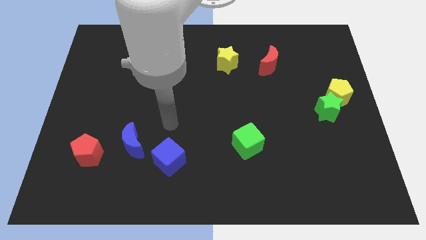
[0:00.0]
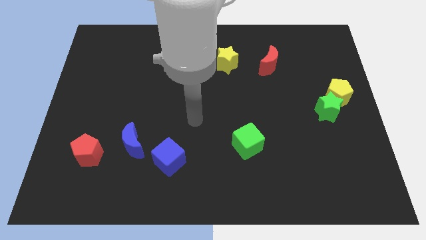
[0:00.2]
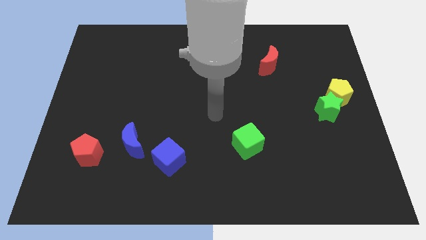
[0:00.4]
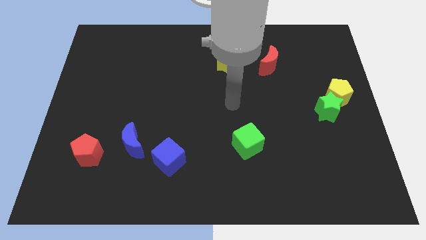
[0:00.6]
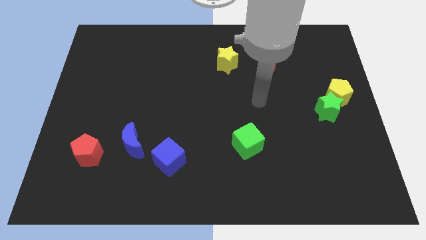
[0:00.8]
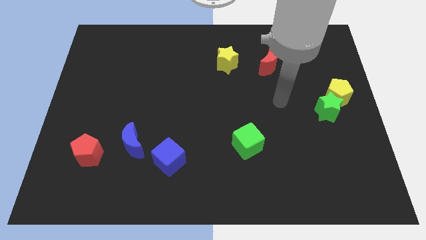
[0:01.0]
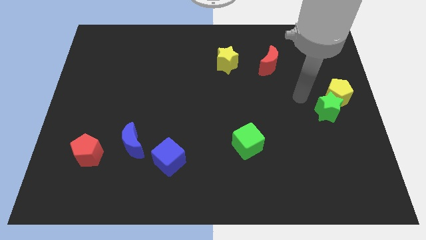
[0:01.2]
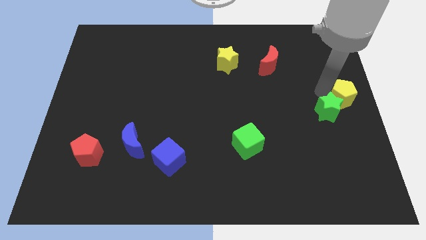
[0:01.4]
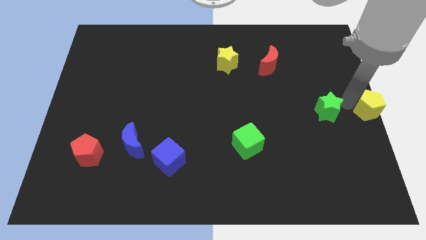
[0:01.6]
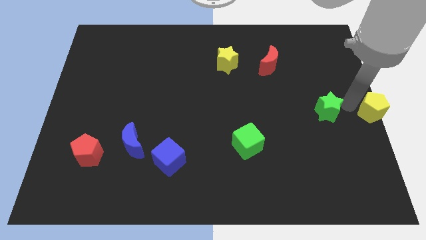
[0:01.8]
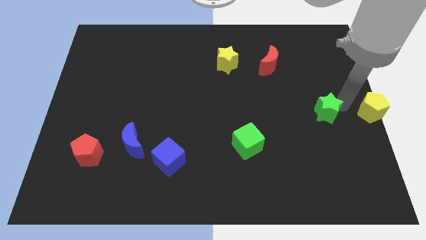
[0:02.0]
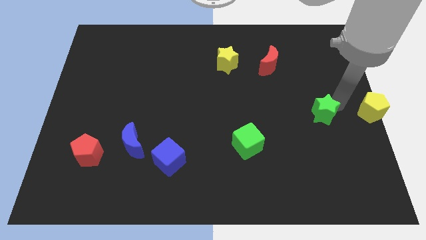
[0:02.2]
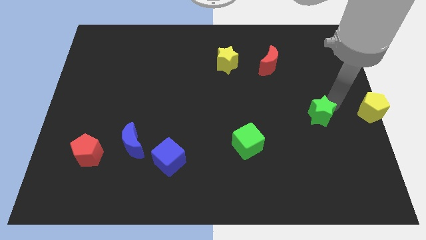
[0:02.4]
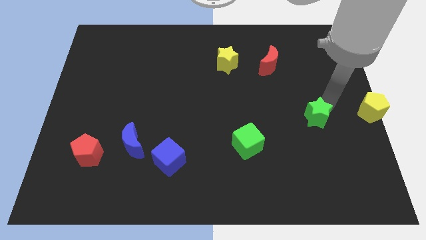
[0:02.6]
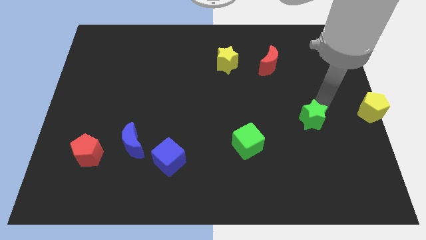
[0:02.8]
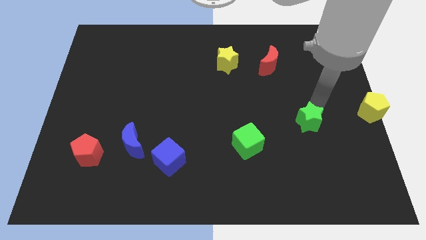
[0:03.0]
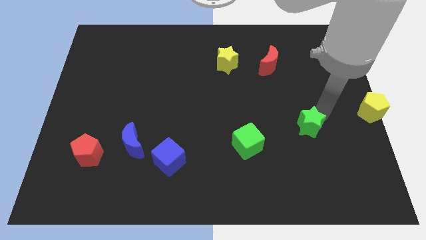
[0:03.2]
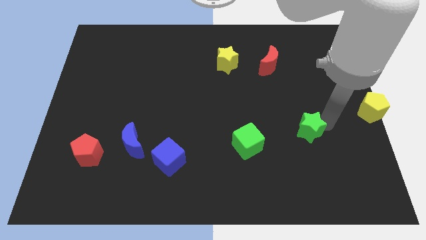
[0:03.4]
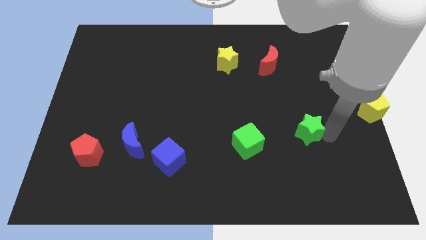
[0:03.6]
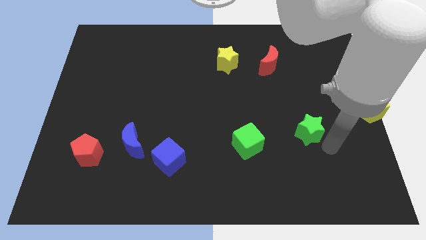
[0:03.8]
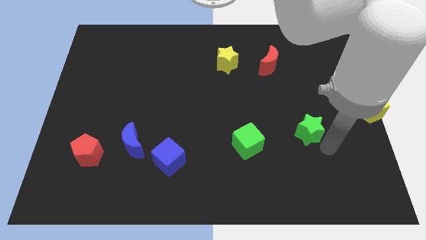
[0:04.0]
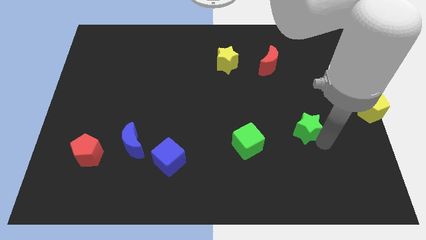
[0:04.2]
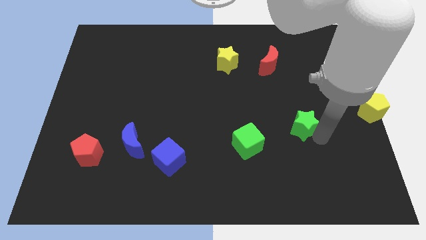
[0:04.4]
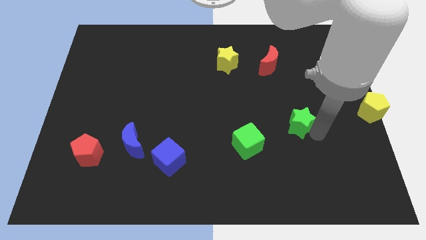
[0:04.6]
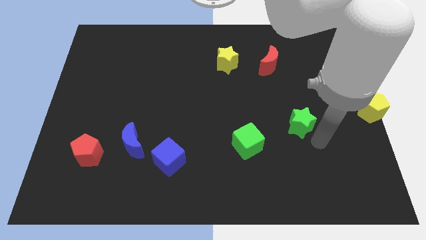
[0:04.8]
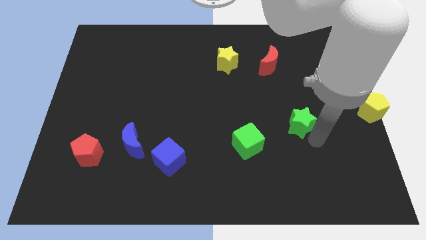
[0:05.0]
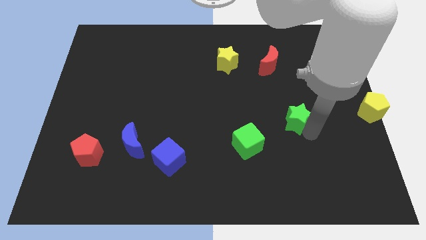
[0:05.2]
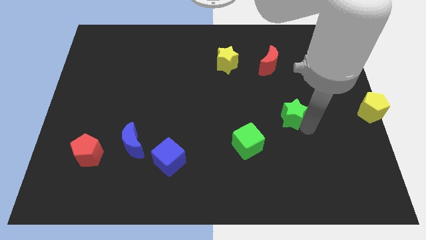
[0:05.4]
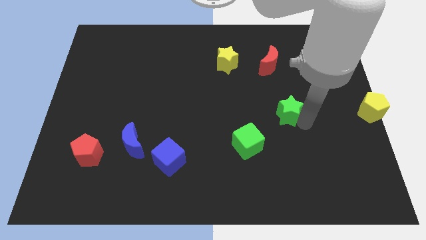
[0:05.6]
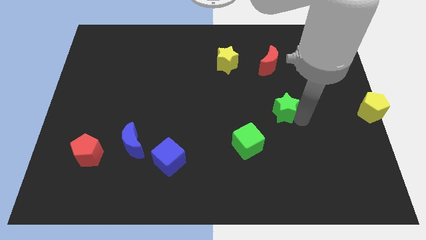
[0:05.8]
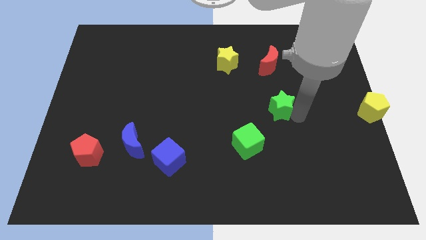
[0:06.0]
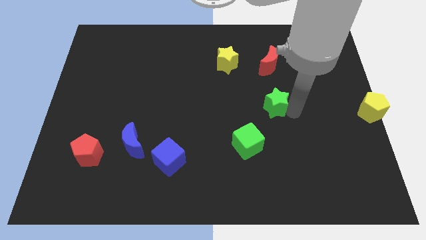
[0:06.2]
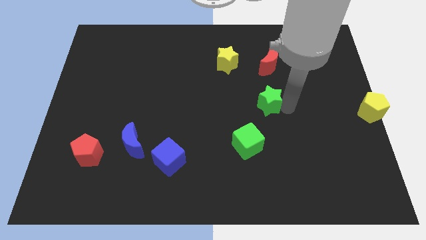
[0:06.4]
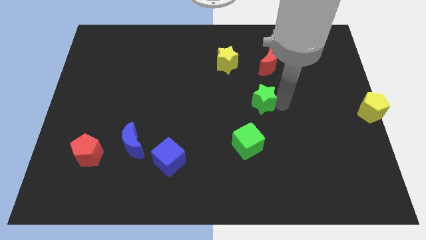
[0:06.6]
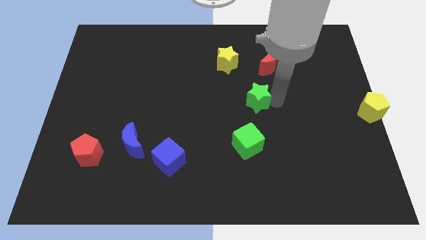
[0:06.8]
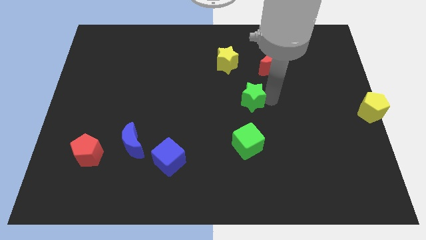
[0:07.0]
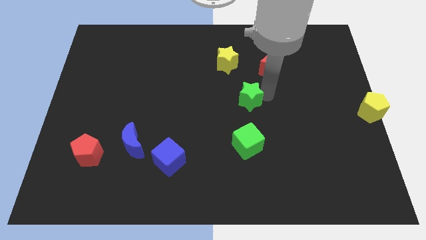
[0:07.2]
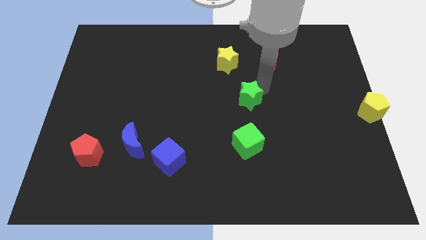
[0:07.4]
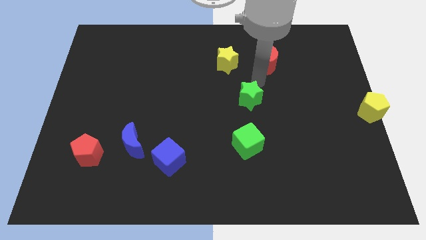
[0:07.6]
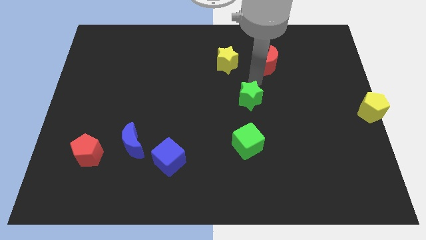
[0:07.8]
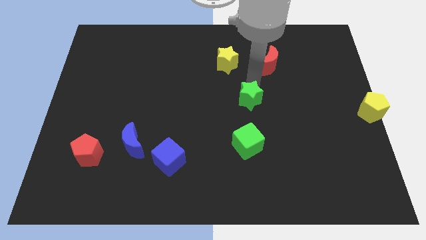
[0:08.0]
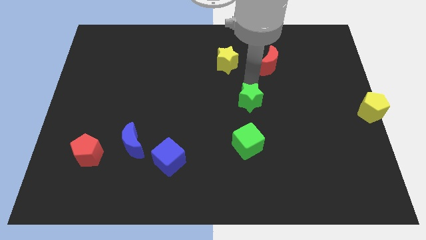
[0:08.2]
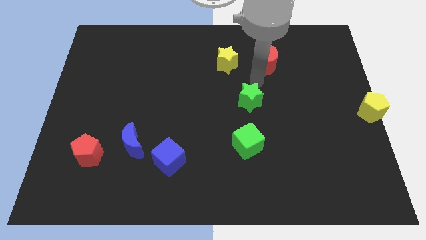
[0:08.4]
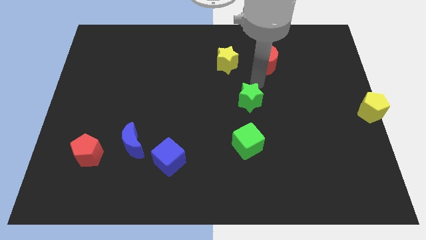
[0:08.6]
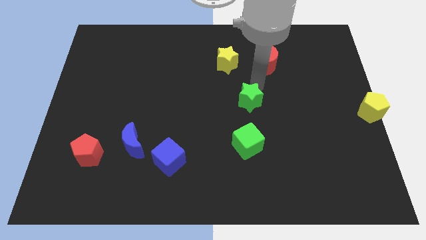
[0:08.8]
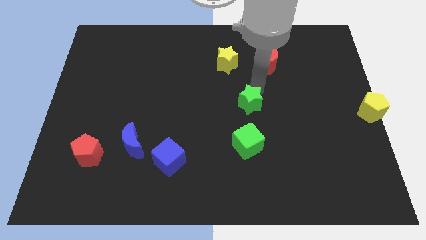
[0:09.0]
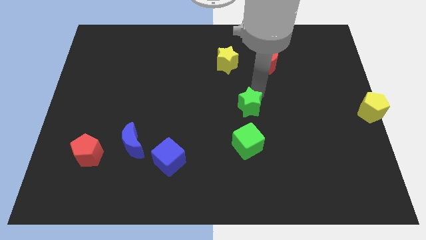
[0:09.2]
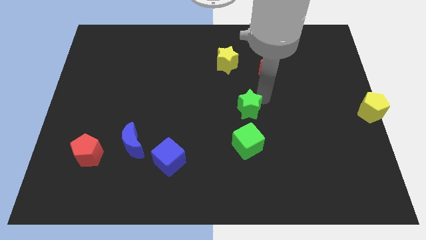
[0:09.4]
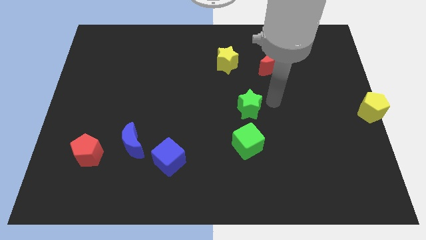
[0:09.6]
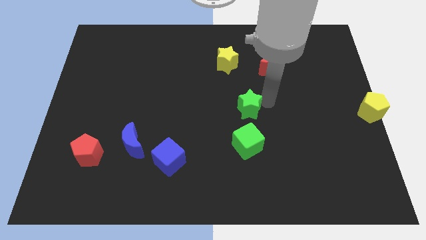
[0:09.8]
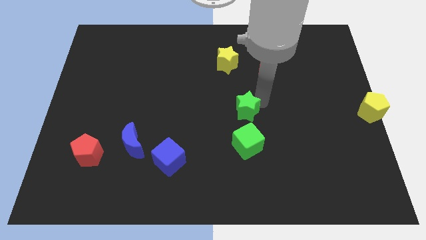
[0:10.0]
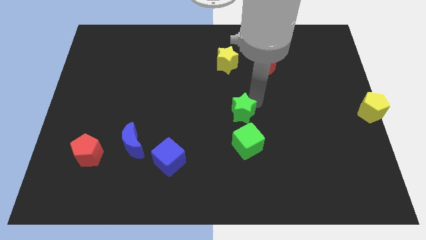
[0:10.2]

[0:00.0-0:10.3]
move the green star left

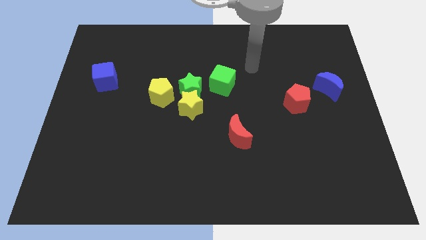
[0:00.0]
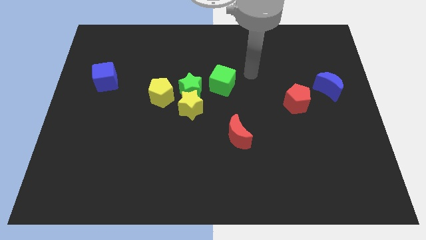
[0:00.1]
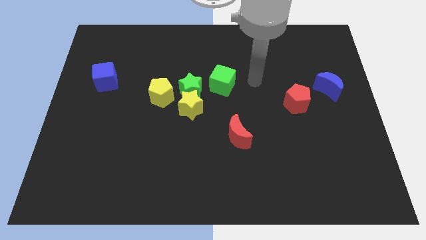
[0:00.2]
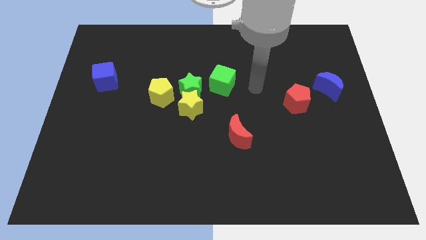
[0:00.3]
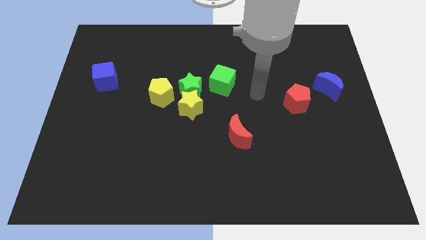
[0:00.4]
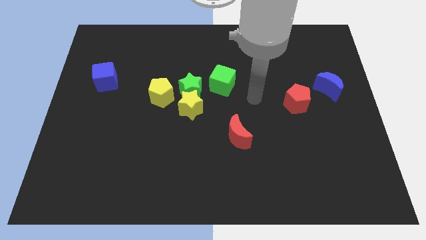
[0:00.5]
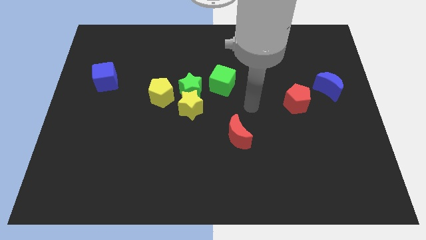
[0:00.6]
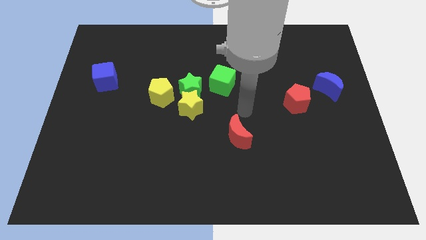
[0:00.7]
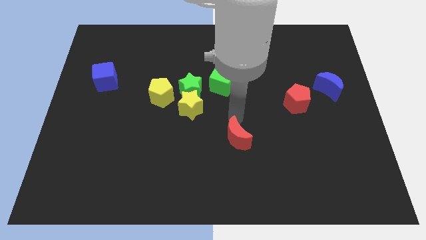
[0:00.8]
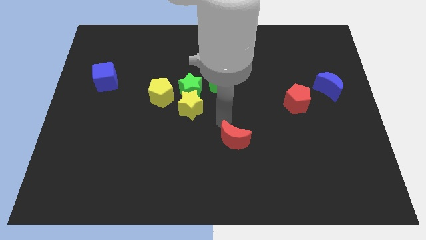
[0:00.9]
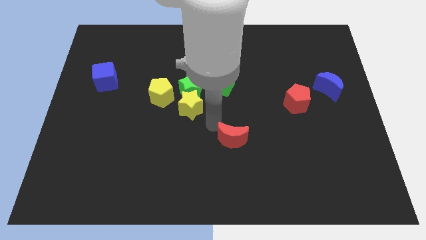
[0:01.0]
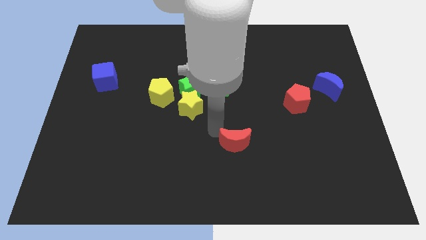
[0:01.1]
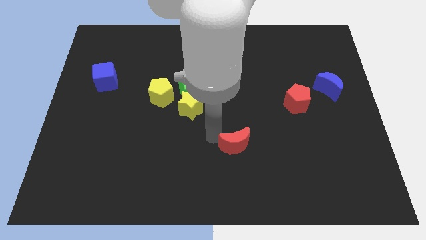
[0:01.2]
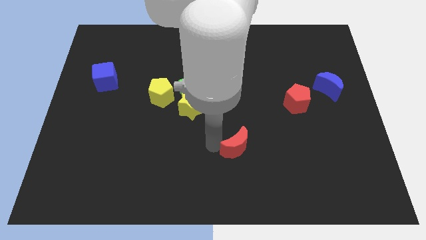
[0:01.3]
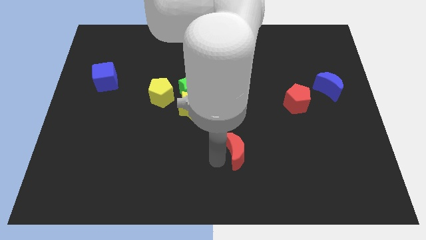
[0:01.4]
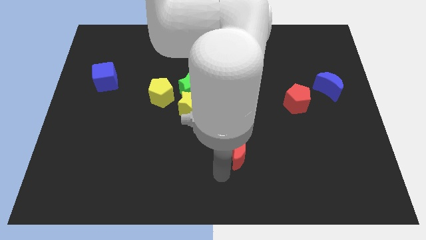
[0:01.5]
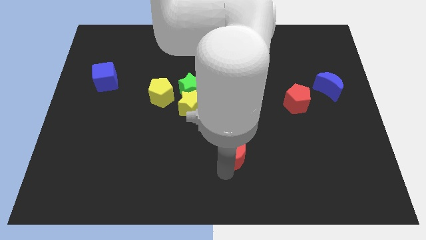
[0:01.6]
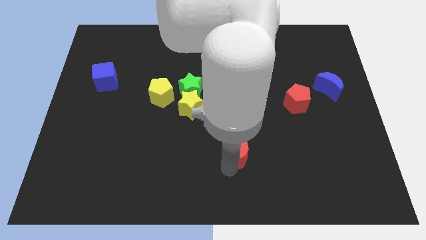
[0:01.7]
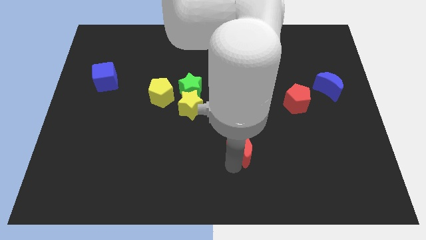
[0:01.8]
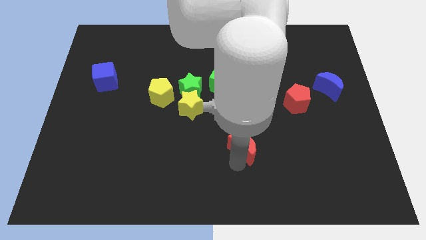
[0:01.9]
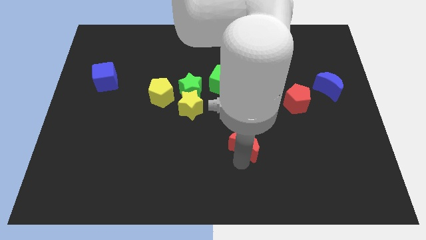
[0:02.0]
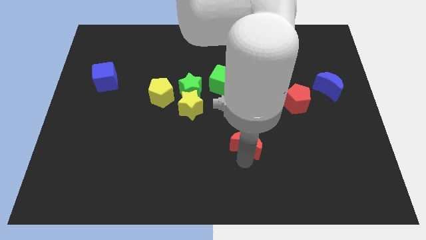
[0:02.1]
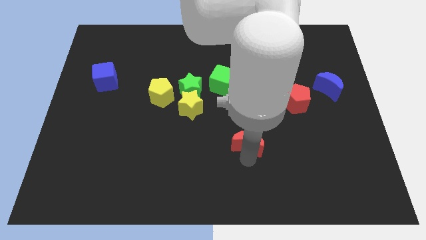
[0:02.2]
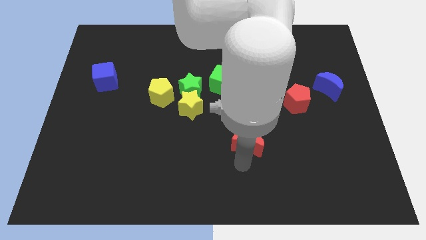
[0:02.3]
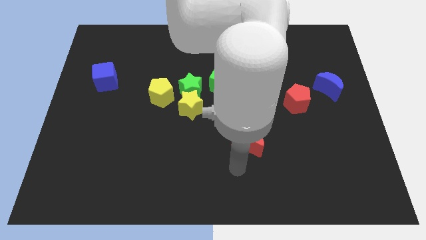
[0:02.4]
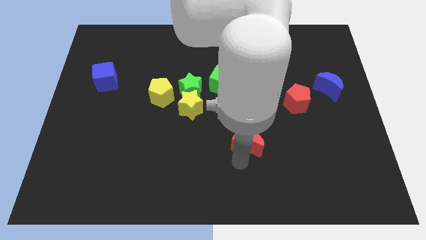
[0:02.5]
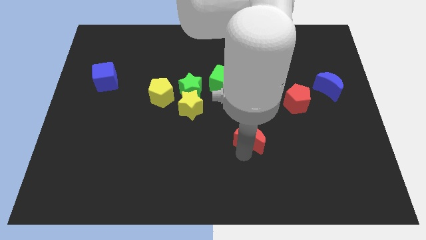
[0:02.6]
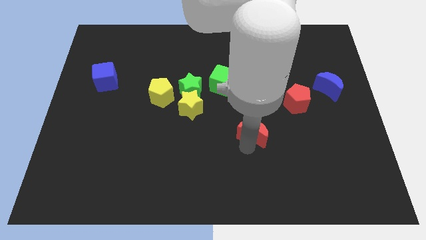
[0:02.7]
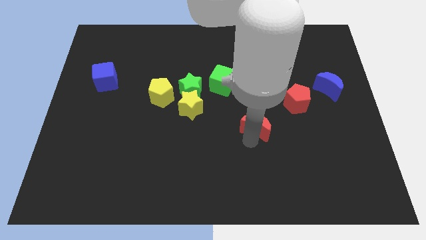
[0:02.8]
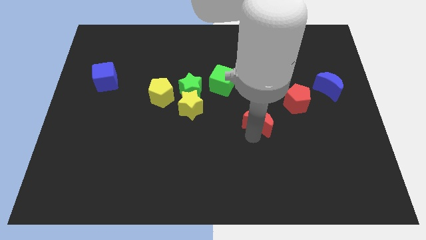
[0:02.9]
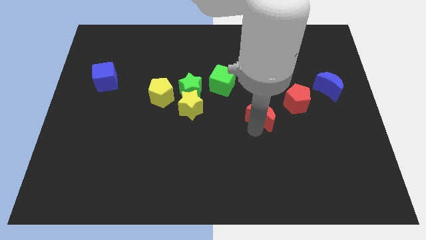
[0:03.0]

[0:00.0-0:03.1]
slightly push the red moon upwards and then to the right

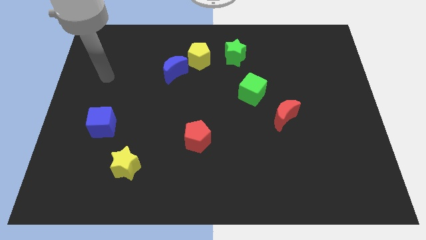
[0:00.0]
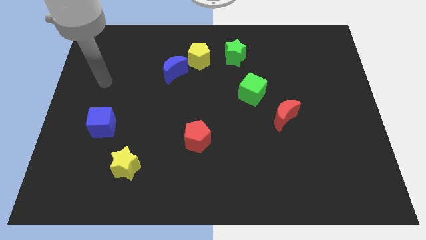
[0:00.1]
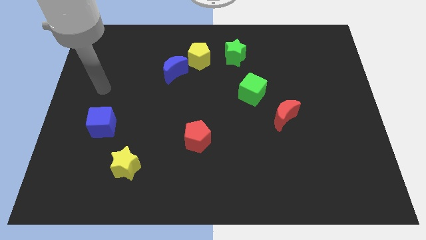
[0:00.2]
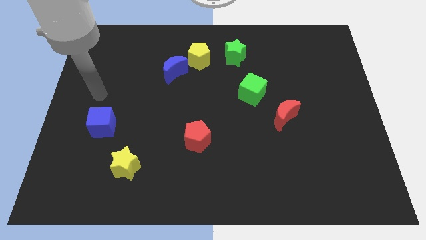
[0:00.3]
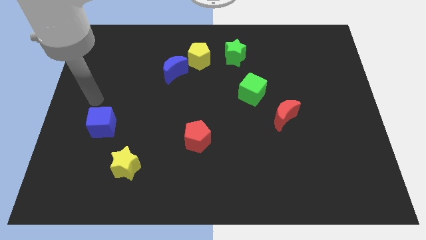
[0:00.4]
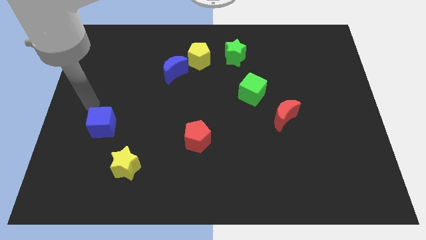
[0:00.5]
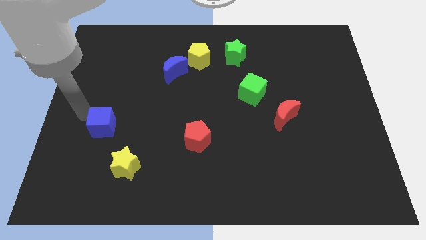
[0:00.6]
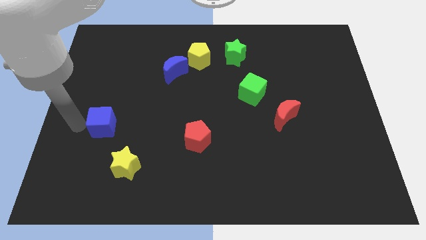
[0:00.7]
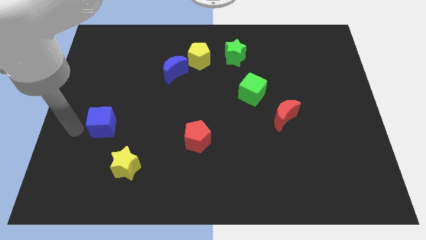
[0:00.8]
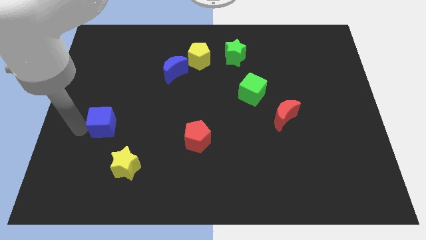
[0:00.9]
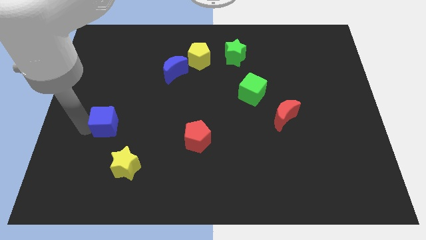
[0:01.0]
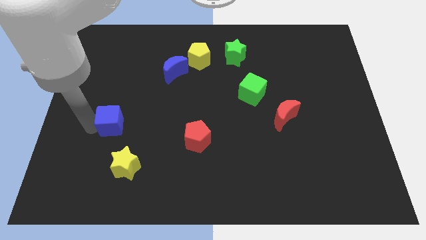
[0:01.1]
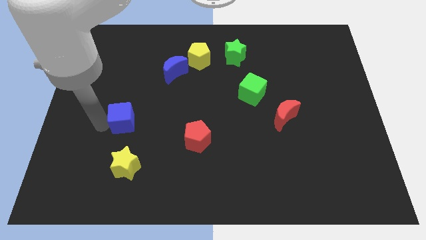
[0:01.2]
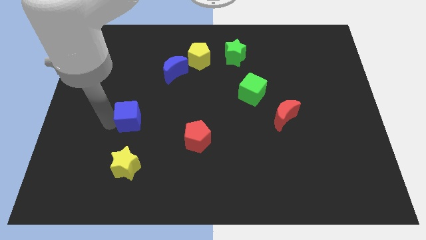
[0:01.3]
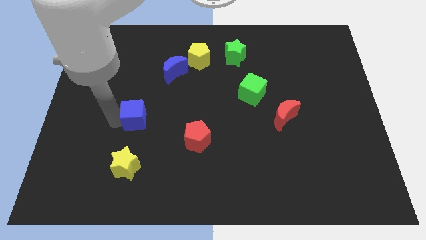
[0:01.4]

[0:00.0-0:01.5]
push the blue cube somewhat right
